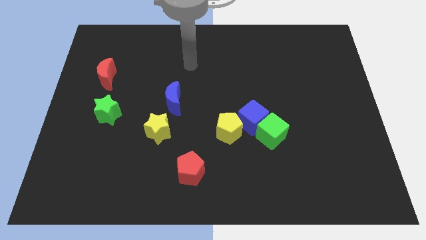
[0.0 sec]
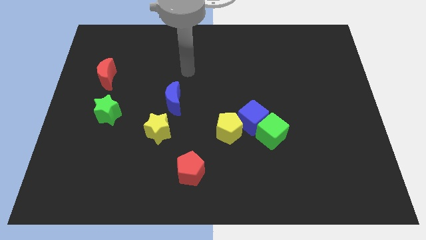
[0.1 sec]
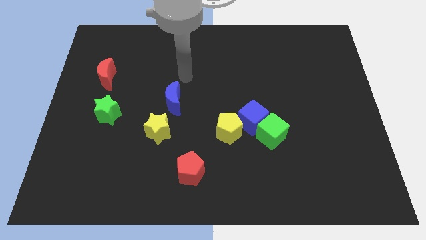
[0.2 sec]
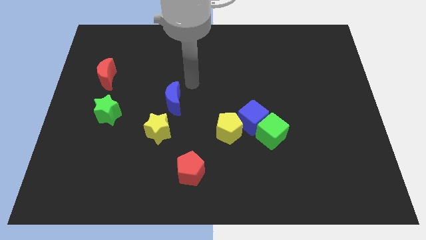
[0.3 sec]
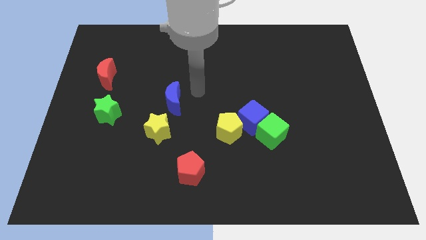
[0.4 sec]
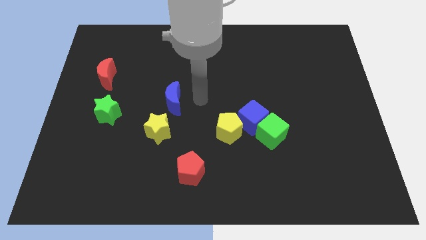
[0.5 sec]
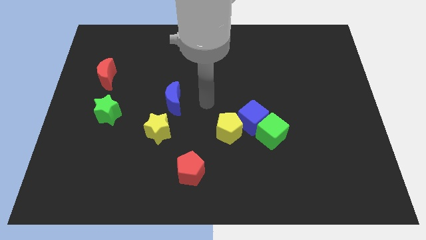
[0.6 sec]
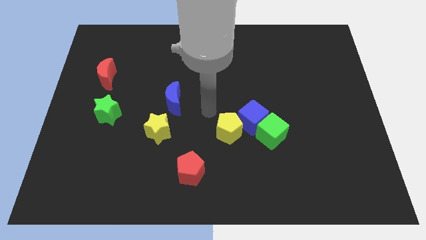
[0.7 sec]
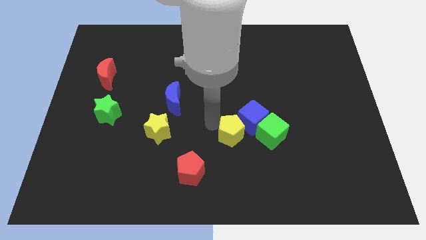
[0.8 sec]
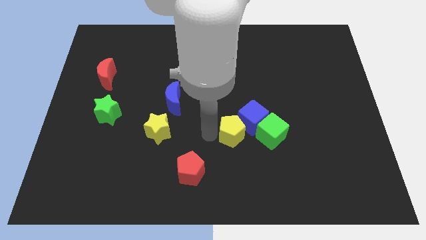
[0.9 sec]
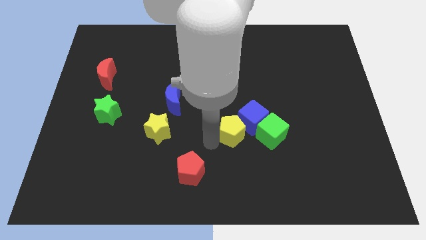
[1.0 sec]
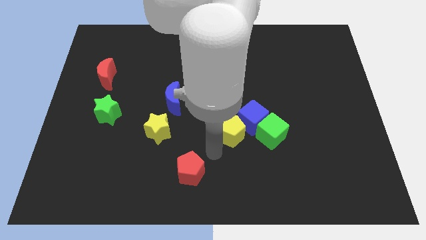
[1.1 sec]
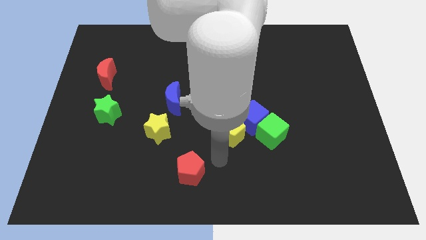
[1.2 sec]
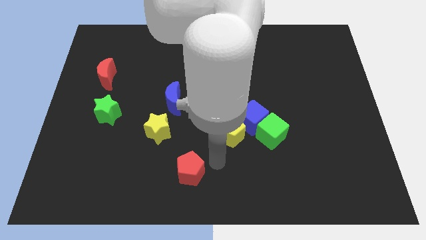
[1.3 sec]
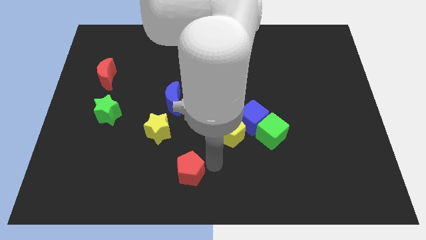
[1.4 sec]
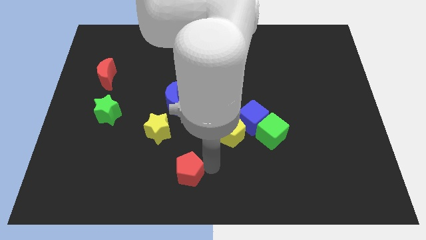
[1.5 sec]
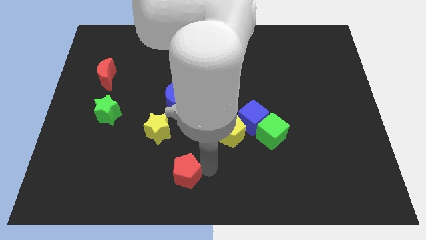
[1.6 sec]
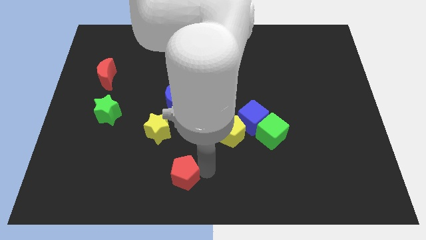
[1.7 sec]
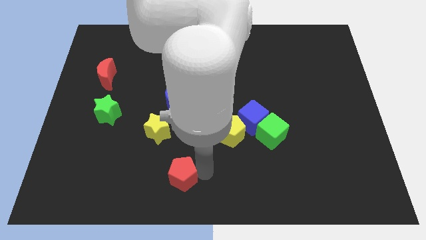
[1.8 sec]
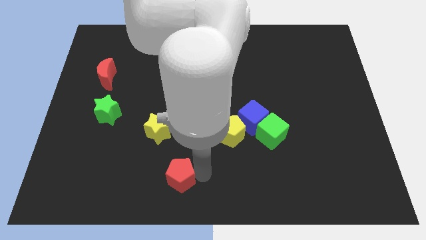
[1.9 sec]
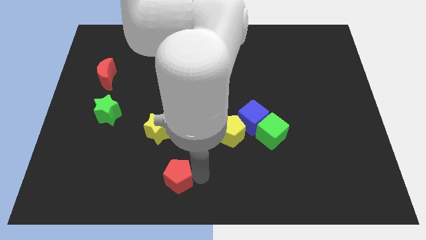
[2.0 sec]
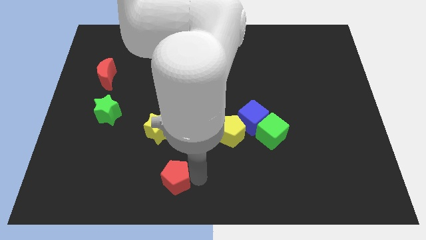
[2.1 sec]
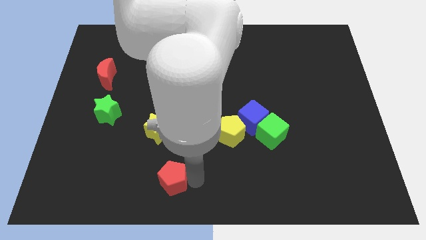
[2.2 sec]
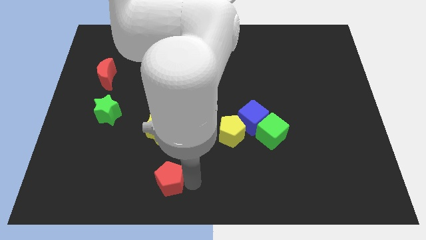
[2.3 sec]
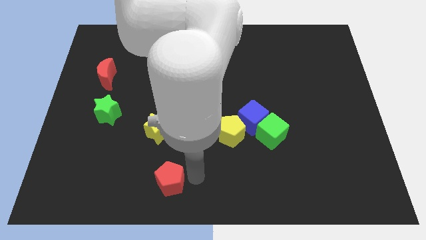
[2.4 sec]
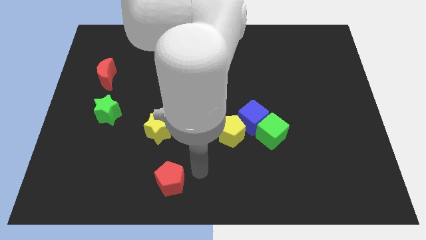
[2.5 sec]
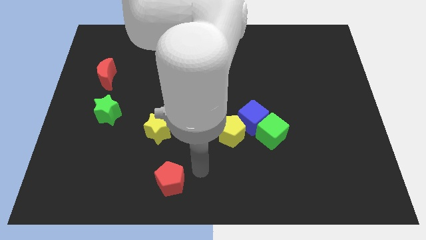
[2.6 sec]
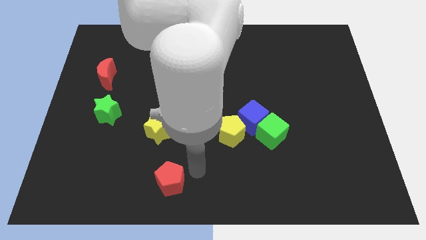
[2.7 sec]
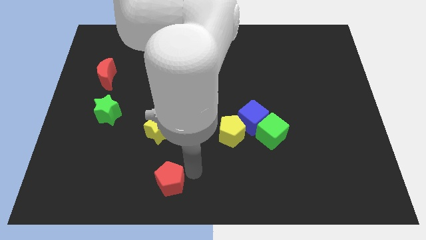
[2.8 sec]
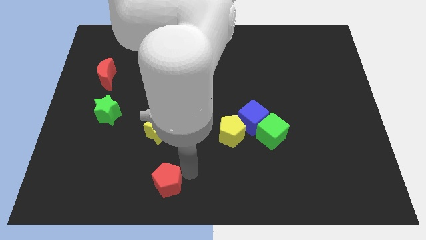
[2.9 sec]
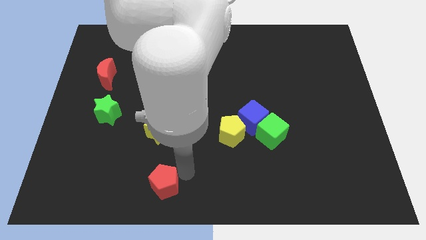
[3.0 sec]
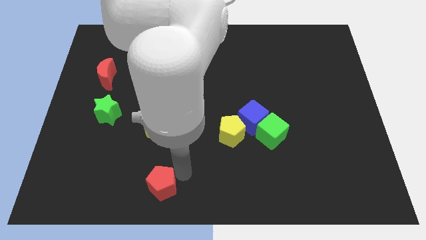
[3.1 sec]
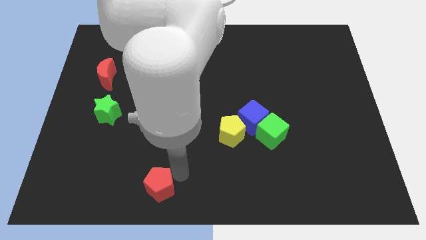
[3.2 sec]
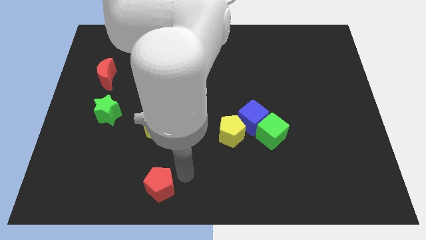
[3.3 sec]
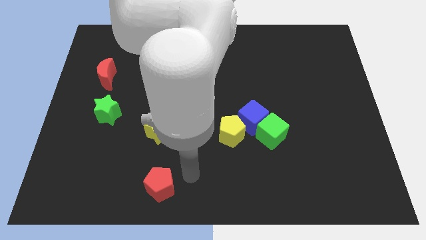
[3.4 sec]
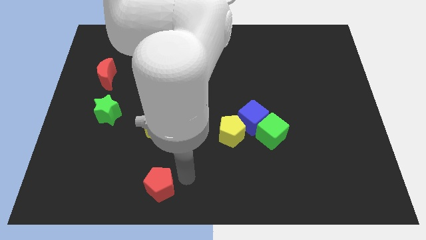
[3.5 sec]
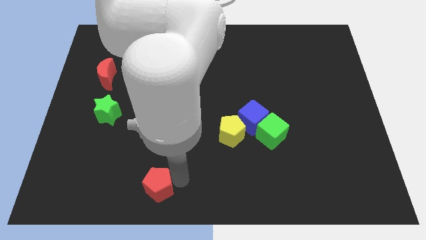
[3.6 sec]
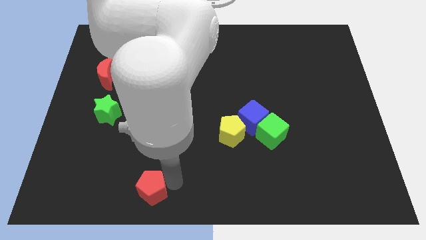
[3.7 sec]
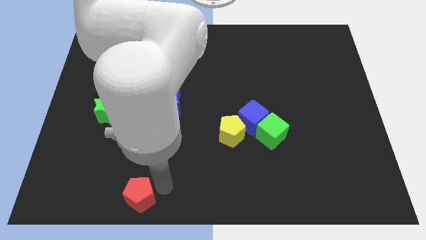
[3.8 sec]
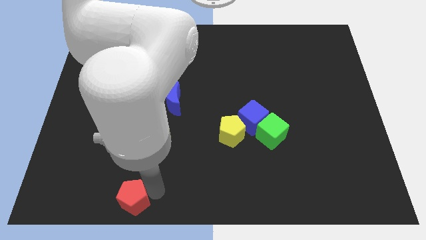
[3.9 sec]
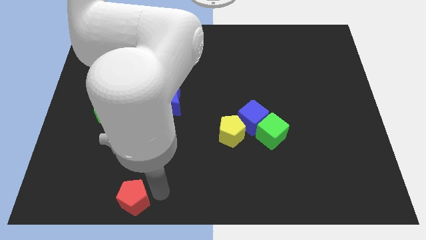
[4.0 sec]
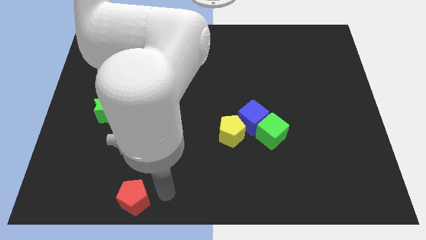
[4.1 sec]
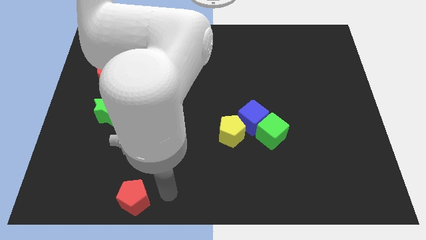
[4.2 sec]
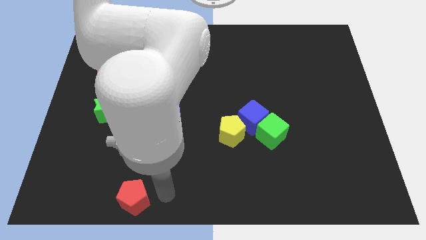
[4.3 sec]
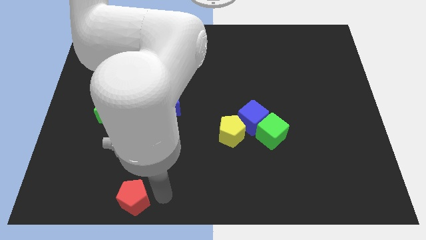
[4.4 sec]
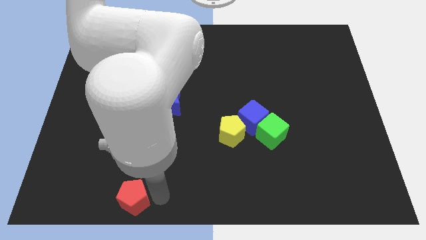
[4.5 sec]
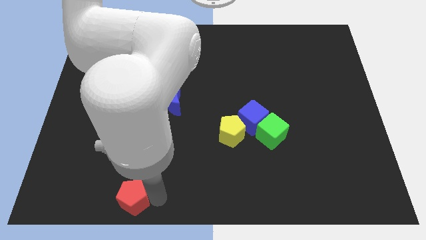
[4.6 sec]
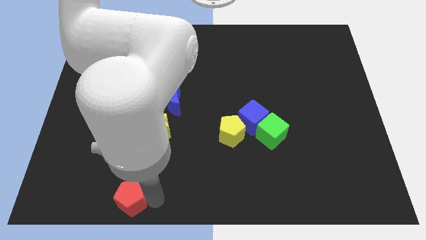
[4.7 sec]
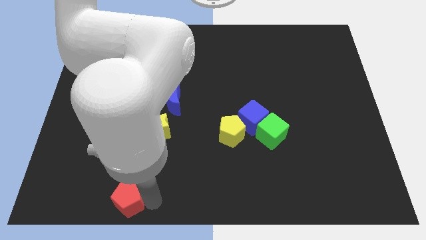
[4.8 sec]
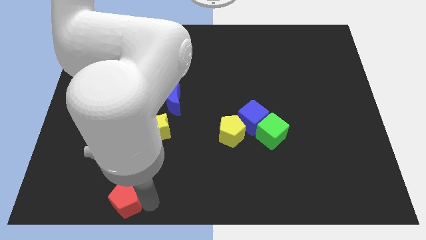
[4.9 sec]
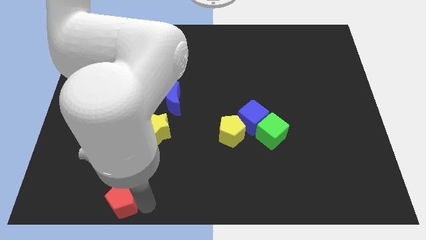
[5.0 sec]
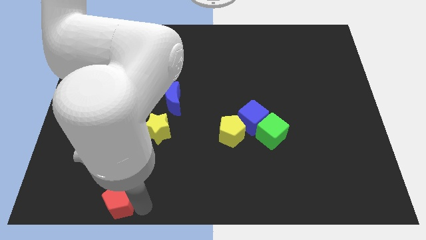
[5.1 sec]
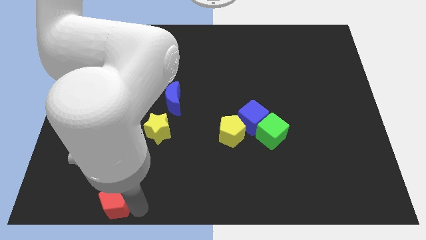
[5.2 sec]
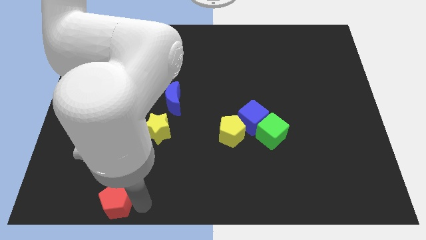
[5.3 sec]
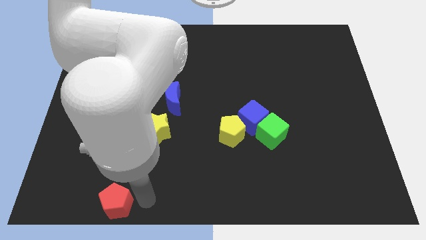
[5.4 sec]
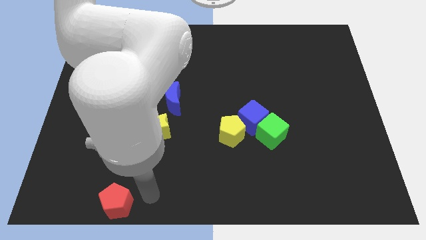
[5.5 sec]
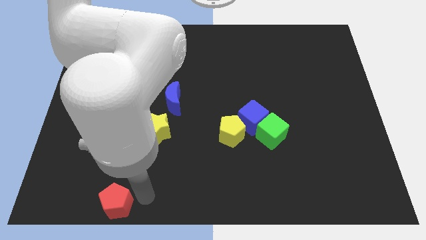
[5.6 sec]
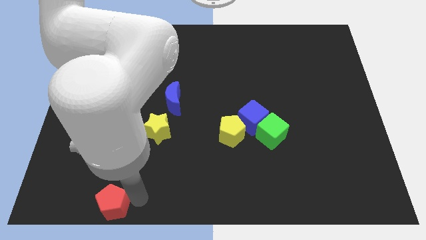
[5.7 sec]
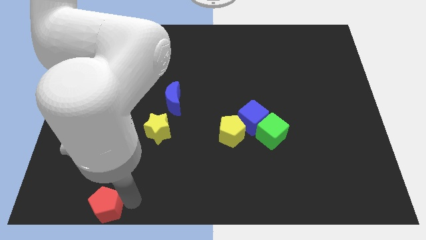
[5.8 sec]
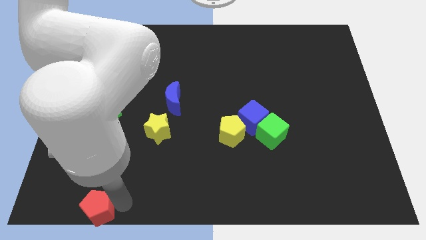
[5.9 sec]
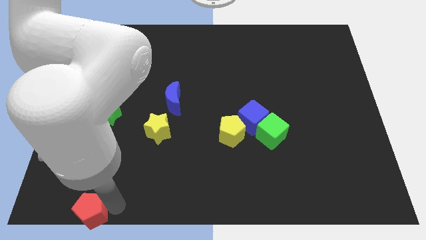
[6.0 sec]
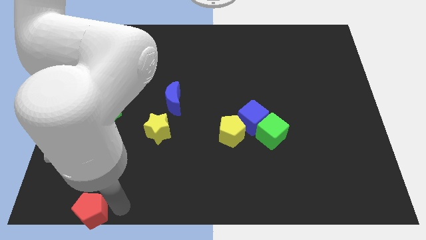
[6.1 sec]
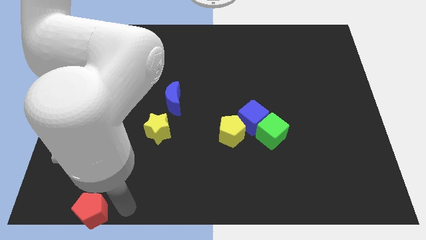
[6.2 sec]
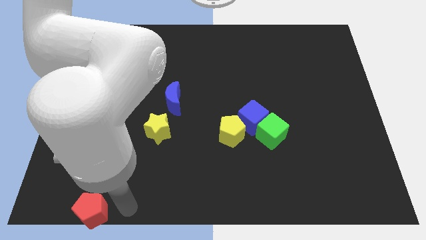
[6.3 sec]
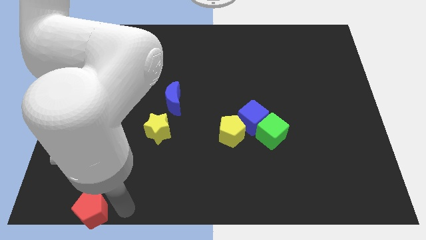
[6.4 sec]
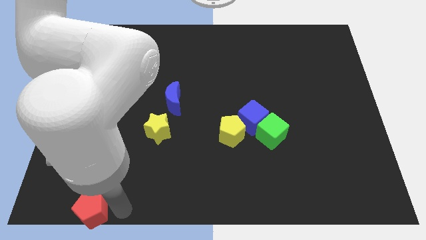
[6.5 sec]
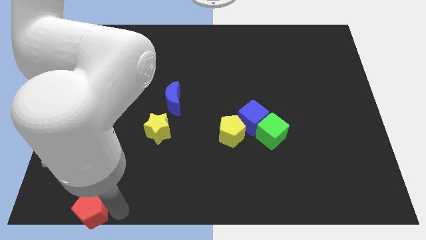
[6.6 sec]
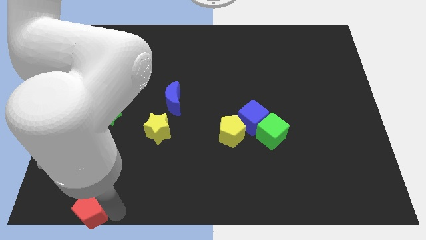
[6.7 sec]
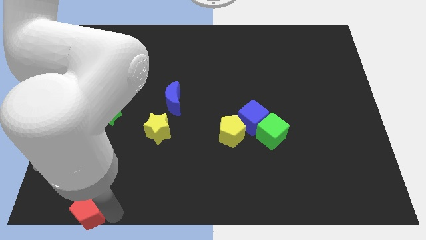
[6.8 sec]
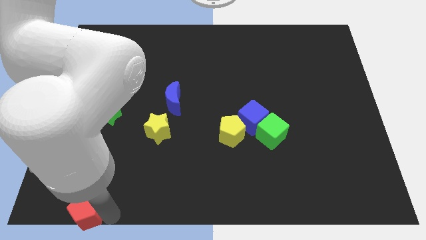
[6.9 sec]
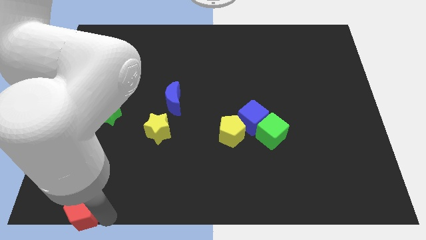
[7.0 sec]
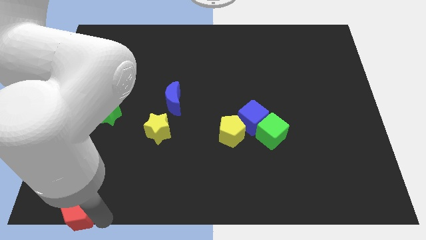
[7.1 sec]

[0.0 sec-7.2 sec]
slide the red pentagon to the bottom left
